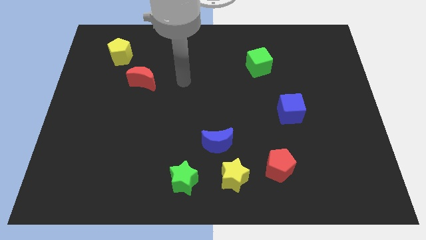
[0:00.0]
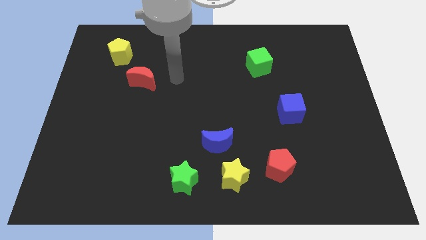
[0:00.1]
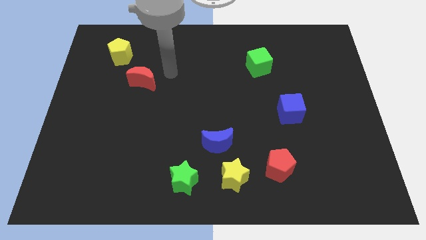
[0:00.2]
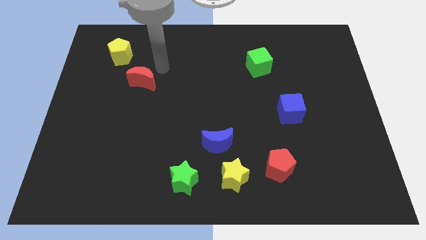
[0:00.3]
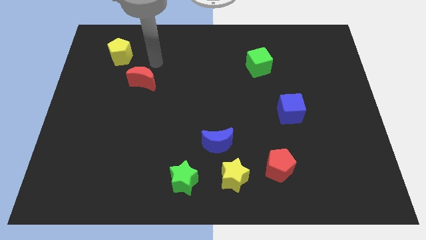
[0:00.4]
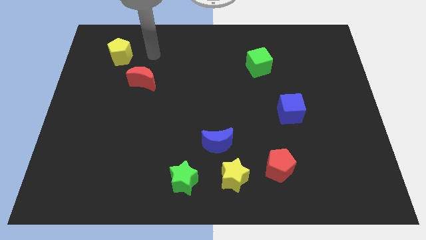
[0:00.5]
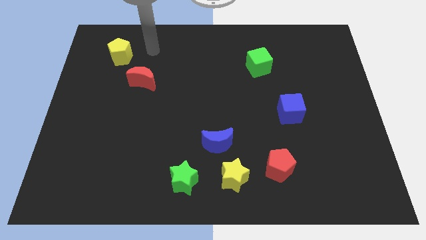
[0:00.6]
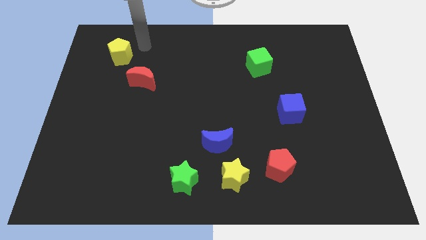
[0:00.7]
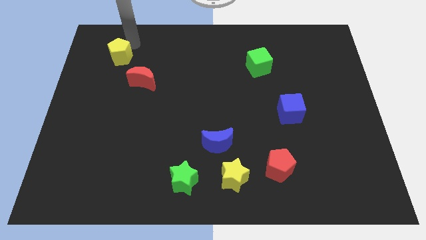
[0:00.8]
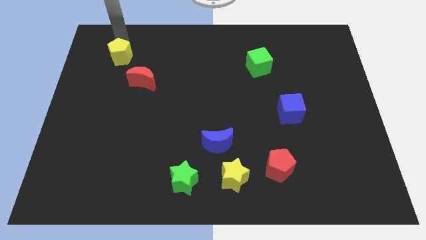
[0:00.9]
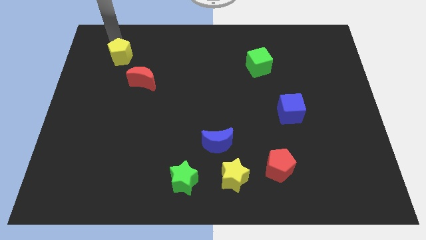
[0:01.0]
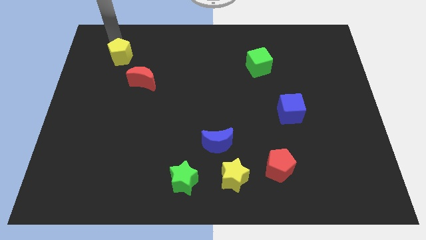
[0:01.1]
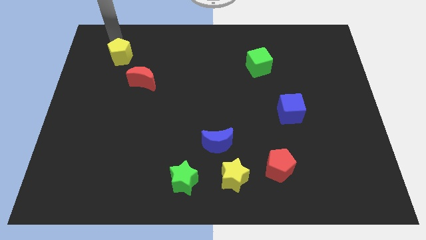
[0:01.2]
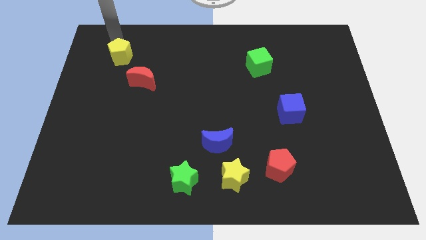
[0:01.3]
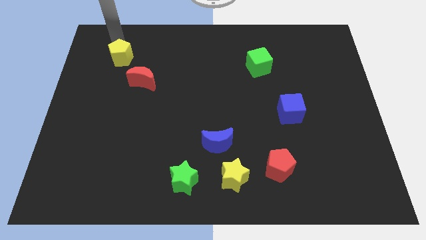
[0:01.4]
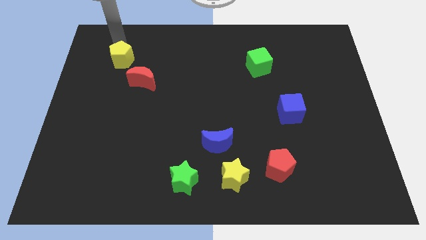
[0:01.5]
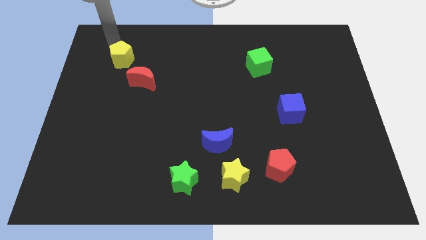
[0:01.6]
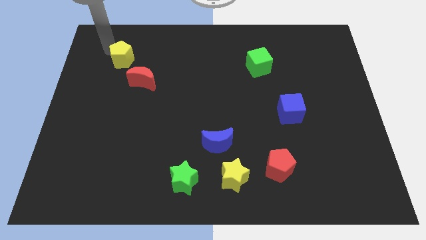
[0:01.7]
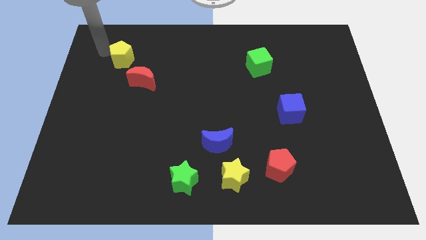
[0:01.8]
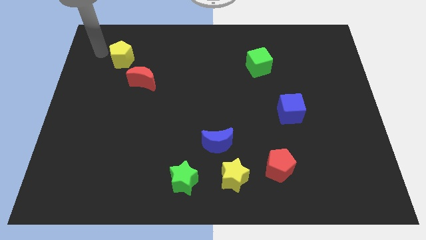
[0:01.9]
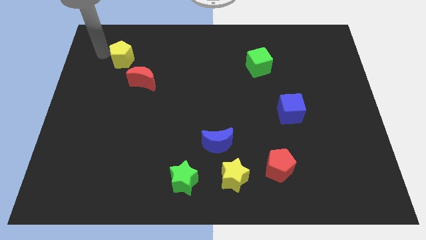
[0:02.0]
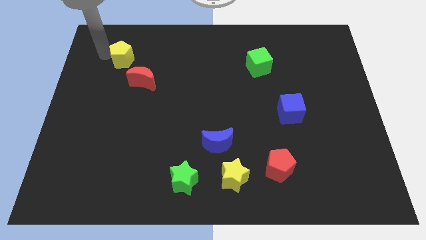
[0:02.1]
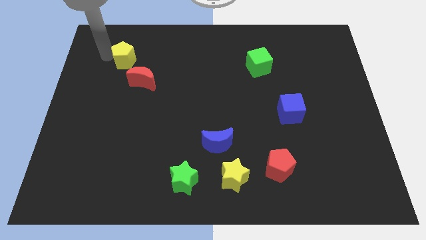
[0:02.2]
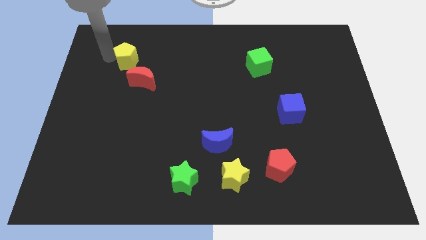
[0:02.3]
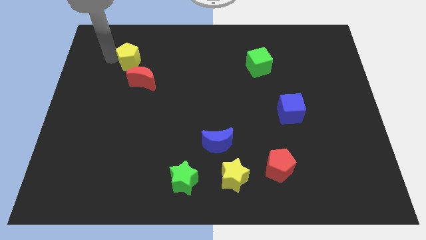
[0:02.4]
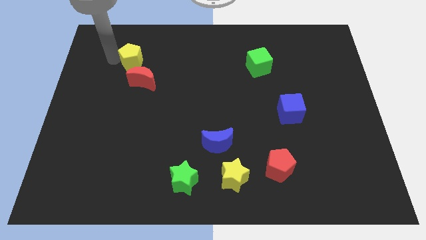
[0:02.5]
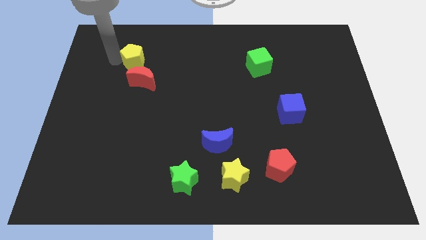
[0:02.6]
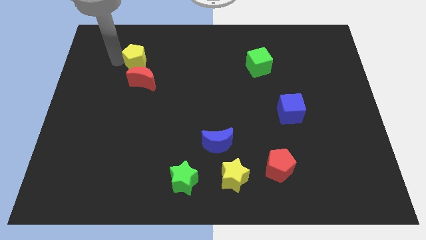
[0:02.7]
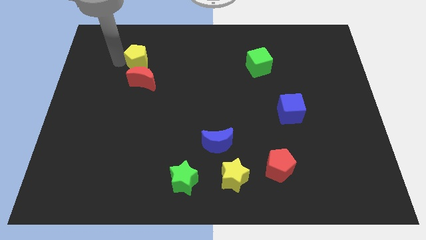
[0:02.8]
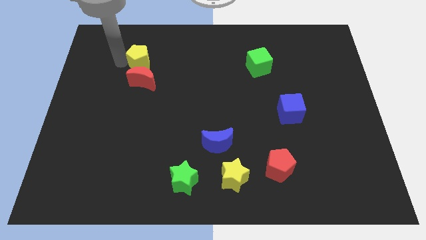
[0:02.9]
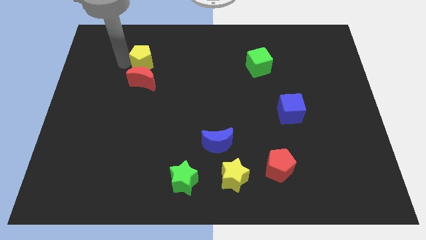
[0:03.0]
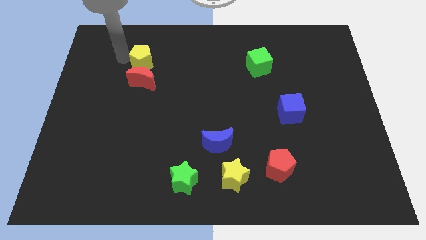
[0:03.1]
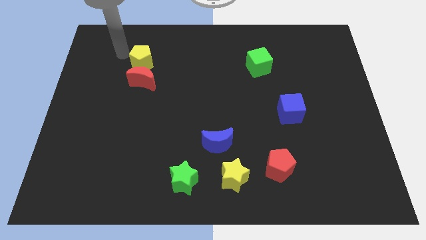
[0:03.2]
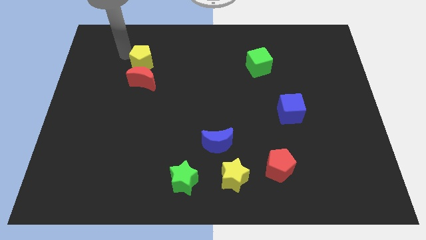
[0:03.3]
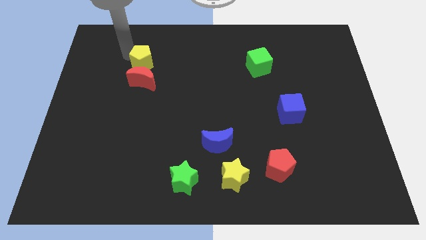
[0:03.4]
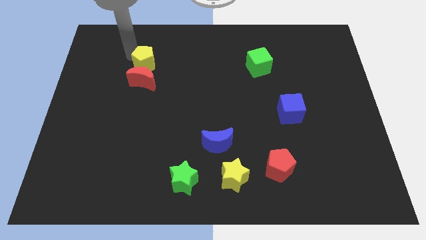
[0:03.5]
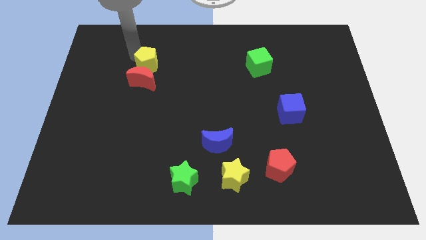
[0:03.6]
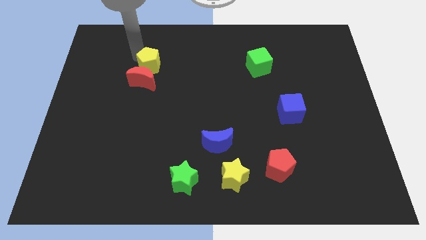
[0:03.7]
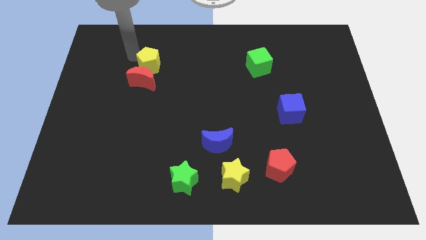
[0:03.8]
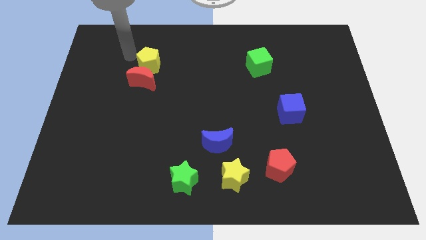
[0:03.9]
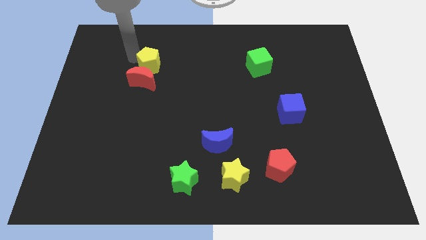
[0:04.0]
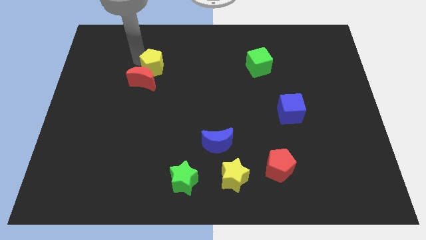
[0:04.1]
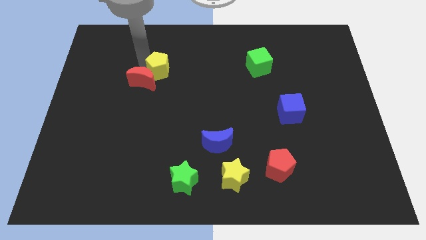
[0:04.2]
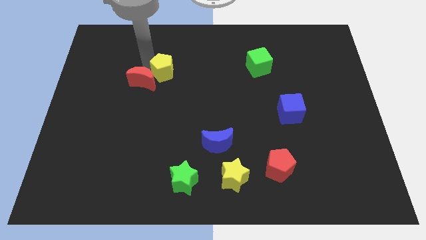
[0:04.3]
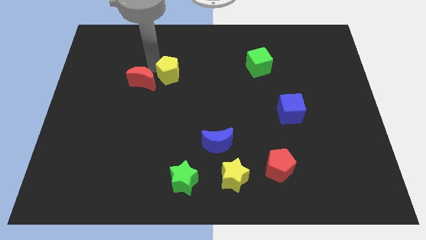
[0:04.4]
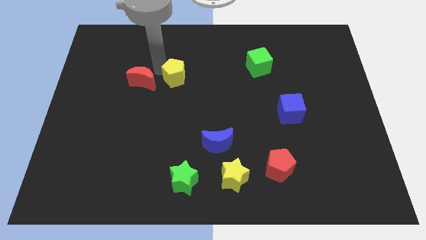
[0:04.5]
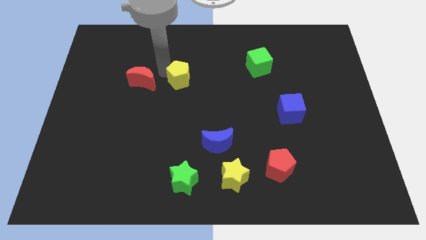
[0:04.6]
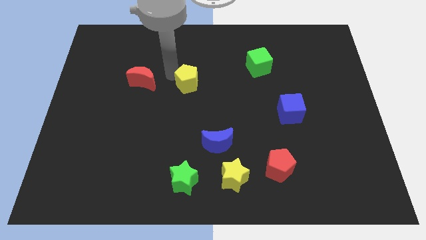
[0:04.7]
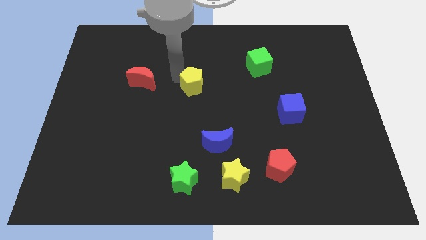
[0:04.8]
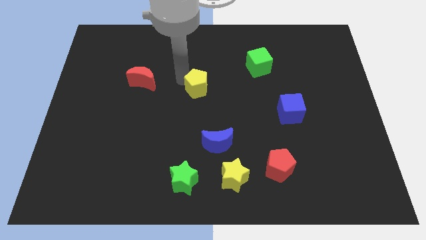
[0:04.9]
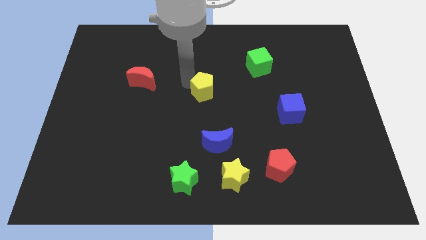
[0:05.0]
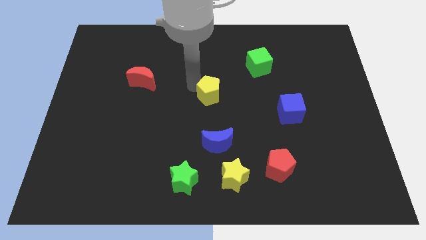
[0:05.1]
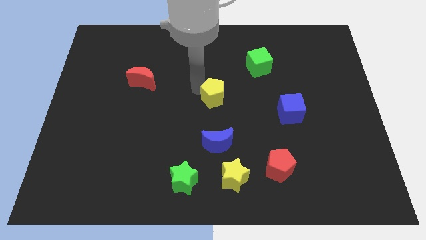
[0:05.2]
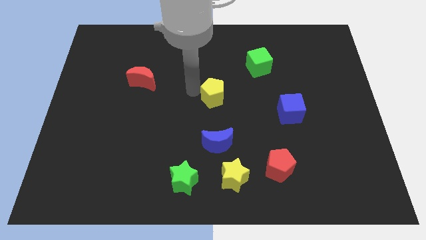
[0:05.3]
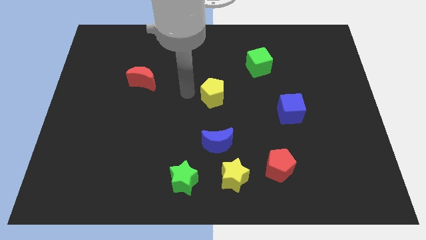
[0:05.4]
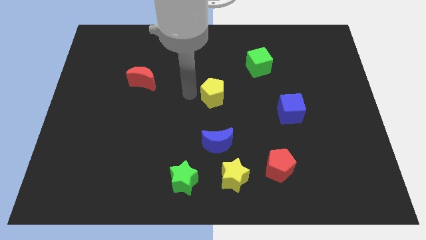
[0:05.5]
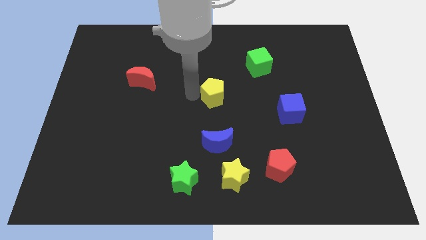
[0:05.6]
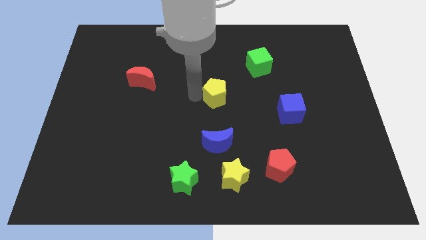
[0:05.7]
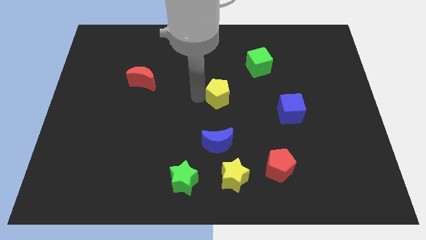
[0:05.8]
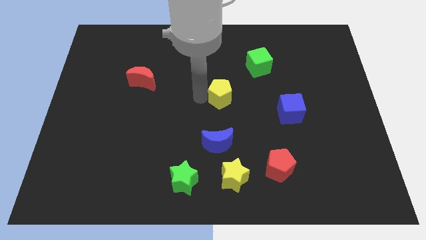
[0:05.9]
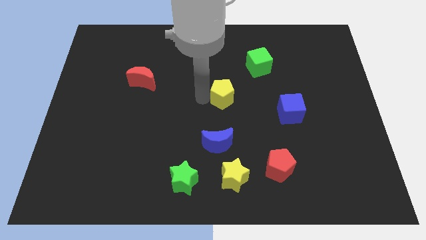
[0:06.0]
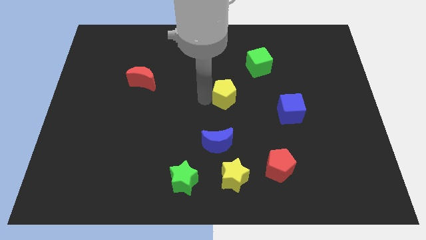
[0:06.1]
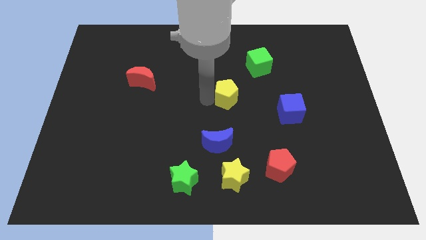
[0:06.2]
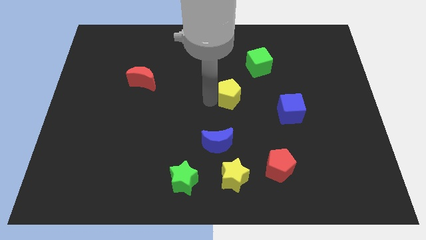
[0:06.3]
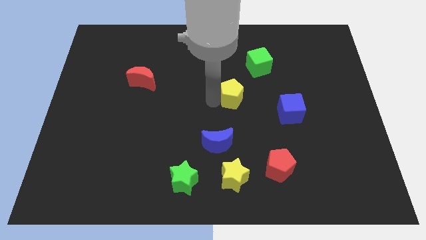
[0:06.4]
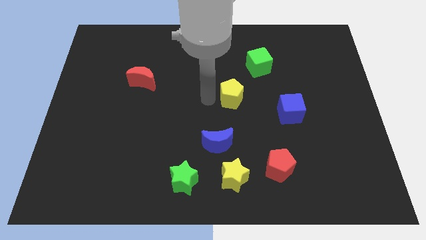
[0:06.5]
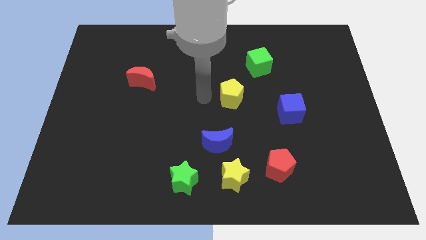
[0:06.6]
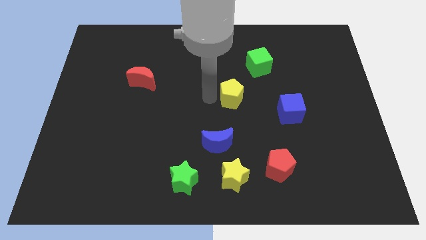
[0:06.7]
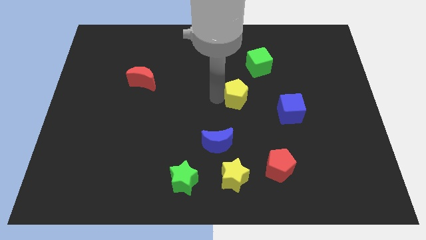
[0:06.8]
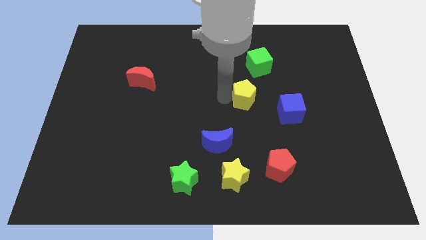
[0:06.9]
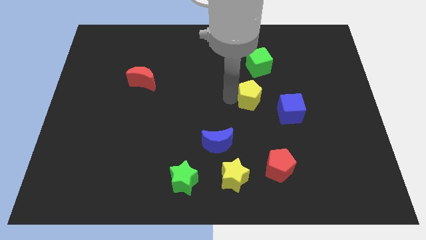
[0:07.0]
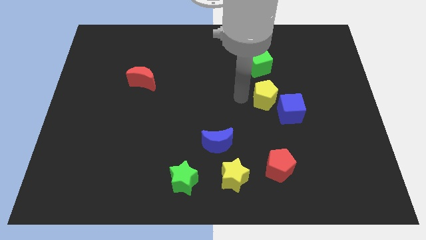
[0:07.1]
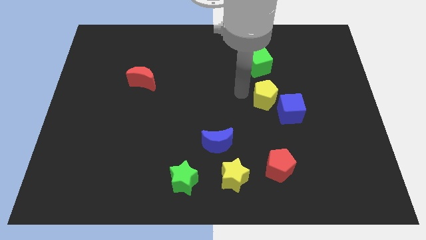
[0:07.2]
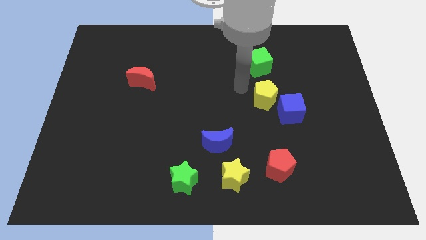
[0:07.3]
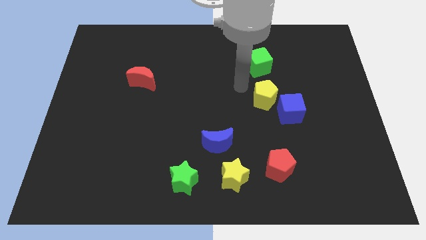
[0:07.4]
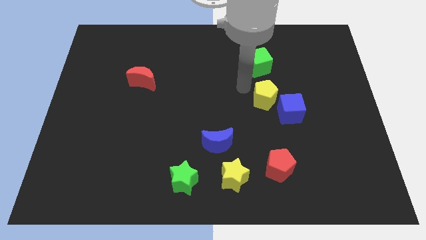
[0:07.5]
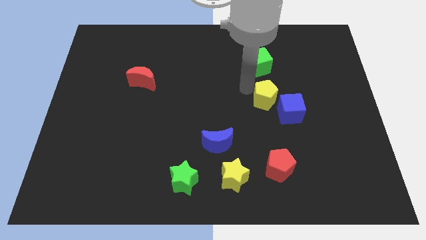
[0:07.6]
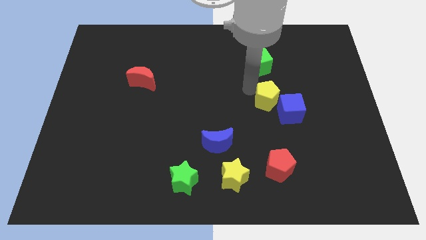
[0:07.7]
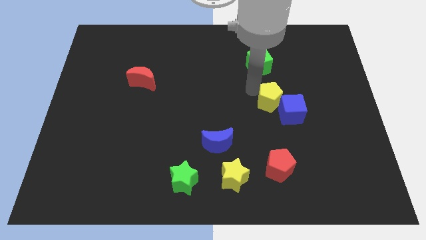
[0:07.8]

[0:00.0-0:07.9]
push the yellow pentagon close to the blue cube

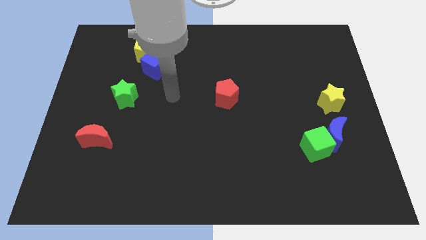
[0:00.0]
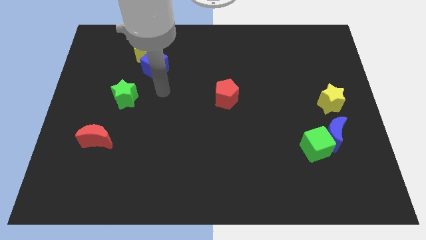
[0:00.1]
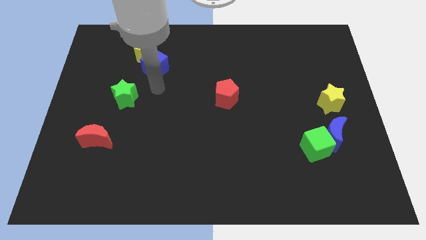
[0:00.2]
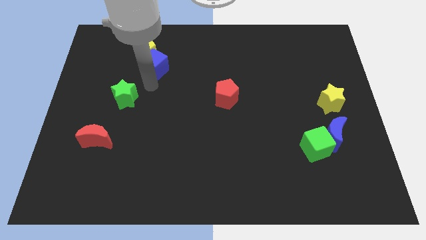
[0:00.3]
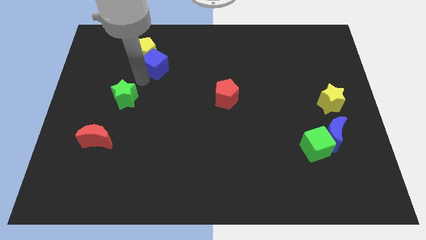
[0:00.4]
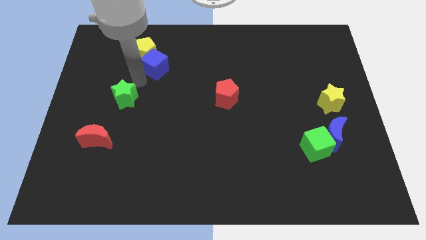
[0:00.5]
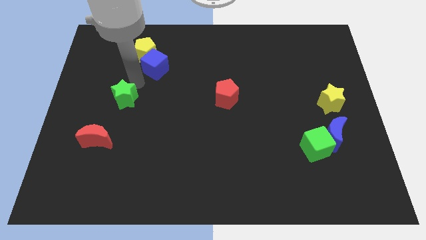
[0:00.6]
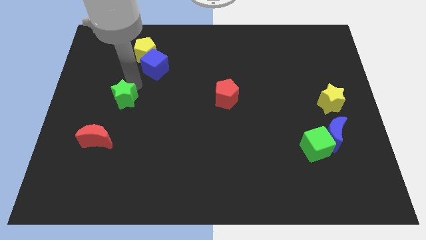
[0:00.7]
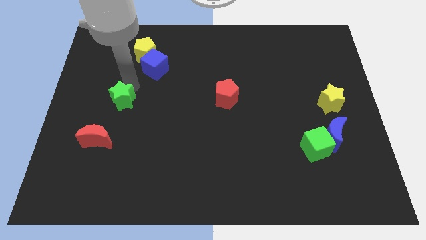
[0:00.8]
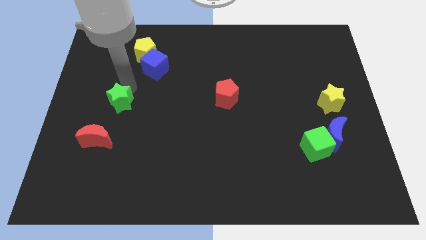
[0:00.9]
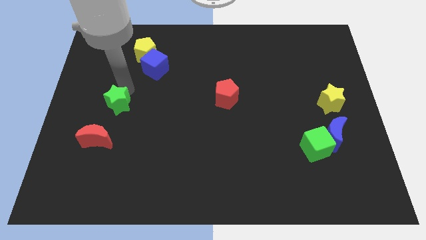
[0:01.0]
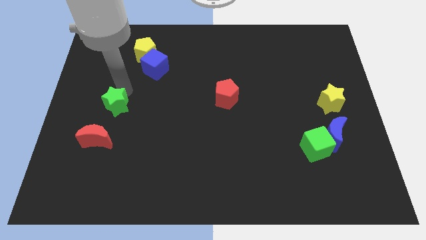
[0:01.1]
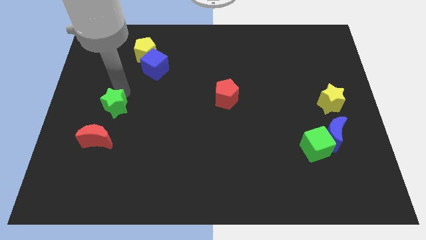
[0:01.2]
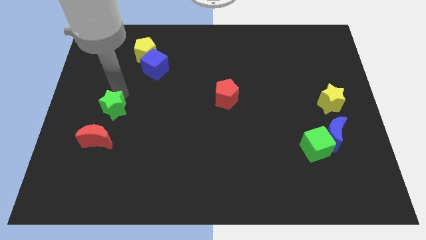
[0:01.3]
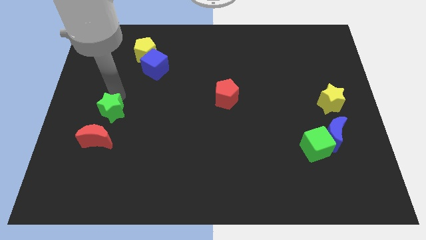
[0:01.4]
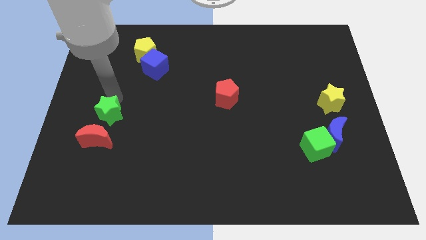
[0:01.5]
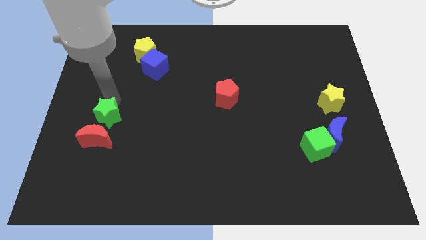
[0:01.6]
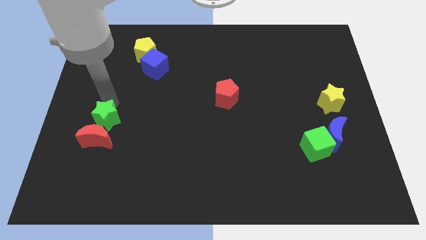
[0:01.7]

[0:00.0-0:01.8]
move the green star to the red moon
